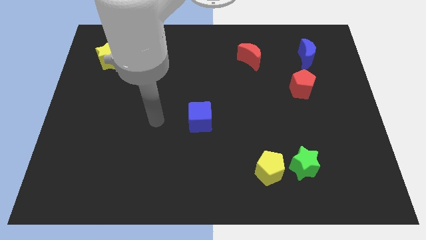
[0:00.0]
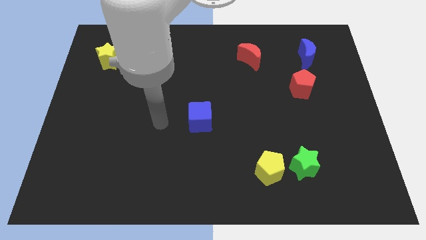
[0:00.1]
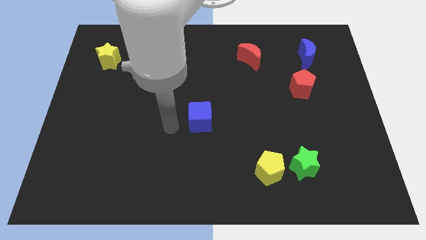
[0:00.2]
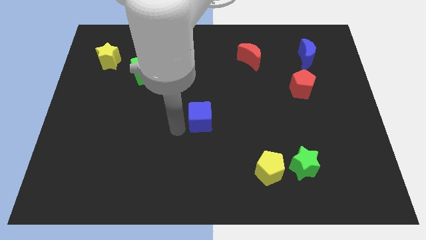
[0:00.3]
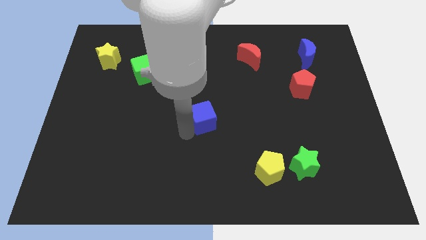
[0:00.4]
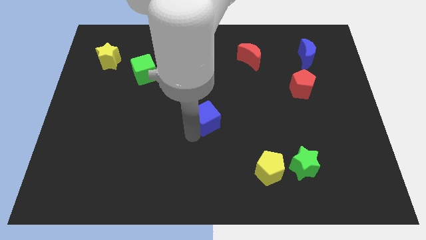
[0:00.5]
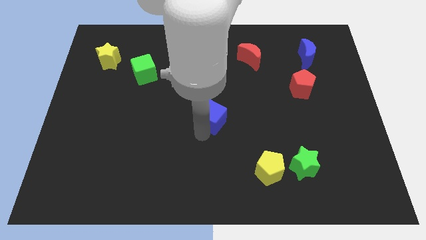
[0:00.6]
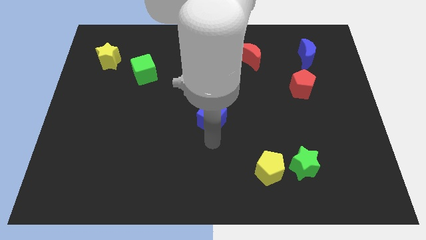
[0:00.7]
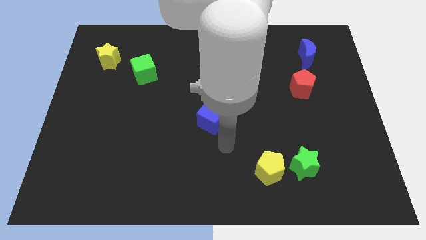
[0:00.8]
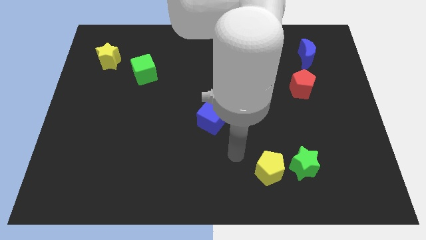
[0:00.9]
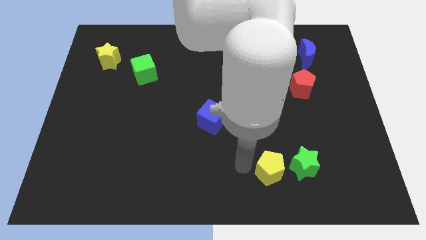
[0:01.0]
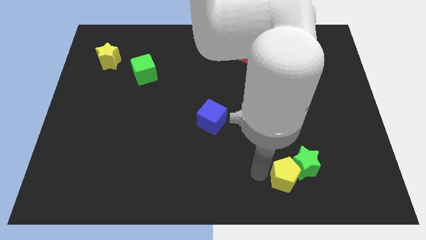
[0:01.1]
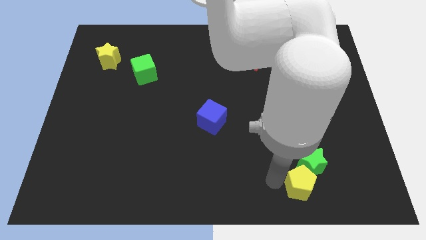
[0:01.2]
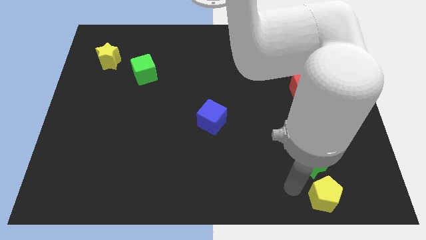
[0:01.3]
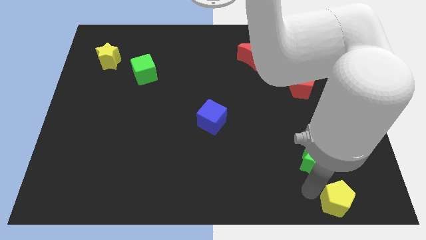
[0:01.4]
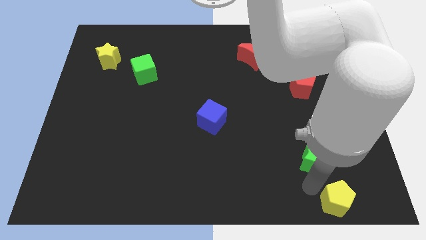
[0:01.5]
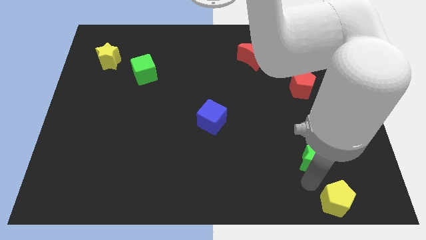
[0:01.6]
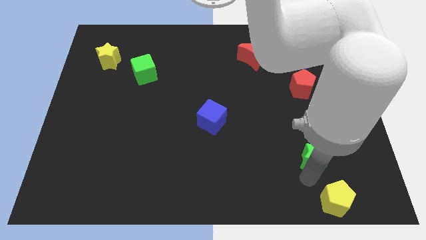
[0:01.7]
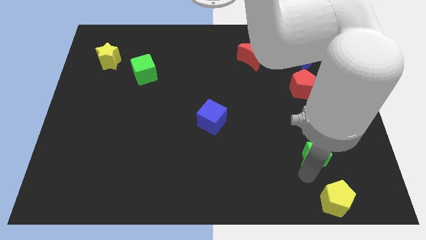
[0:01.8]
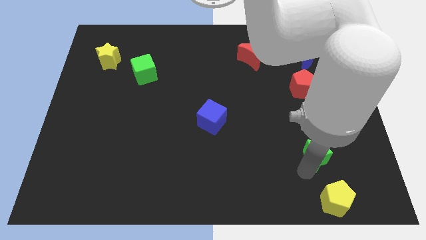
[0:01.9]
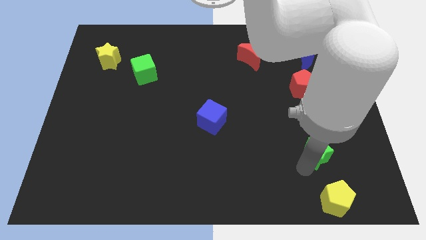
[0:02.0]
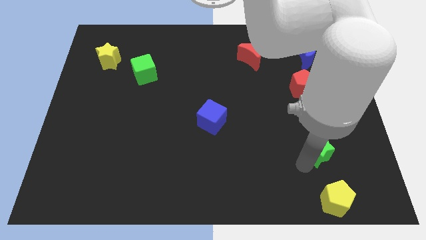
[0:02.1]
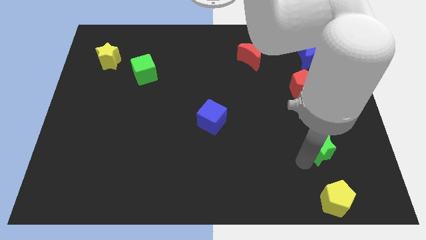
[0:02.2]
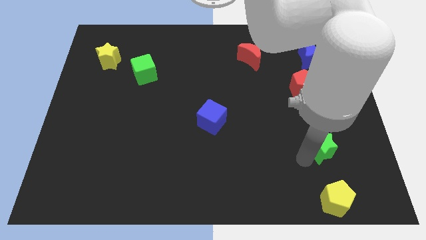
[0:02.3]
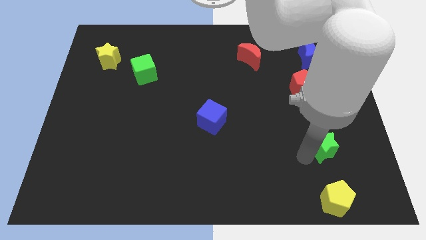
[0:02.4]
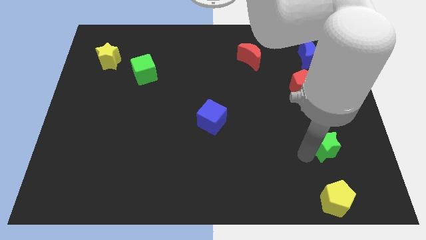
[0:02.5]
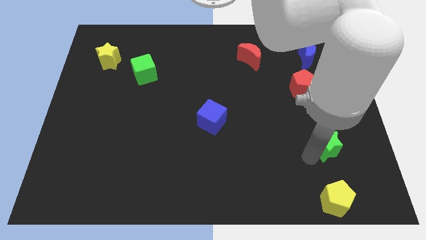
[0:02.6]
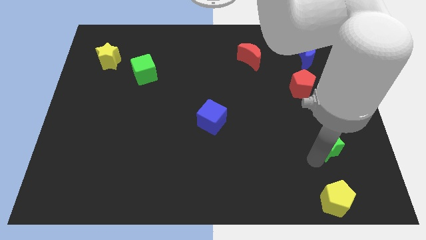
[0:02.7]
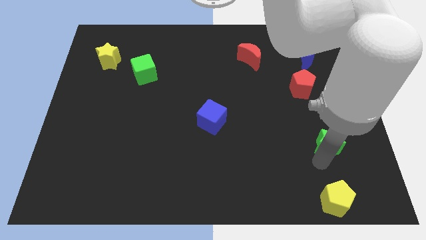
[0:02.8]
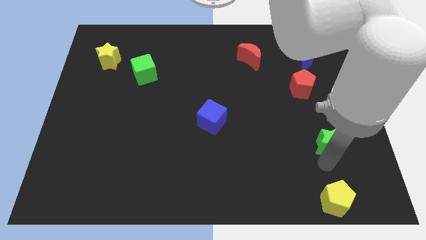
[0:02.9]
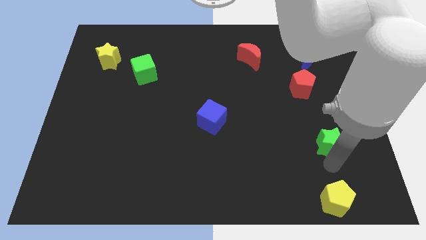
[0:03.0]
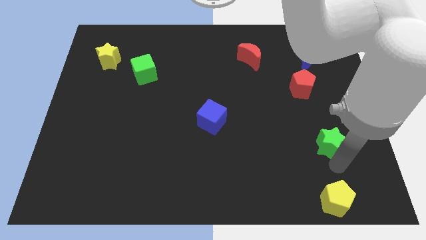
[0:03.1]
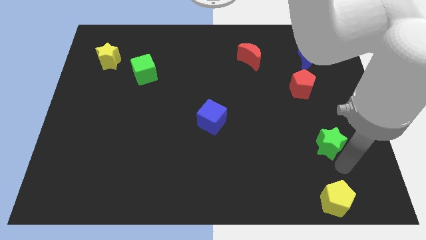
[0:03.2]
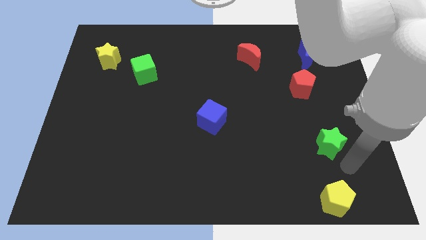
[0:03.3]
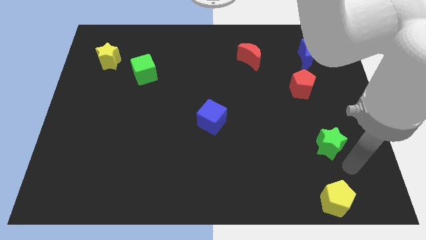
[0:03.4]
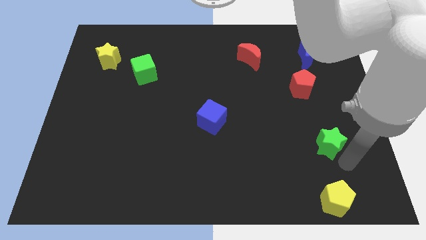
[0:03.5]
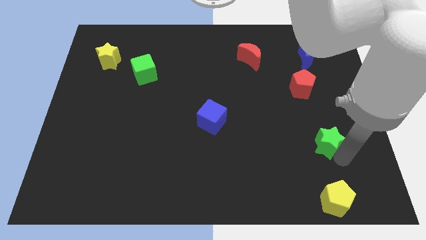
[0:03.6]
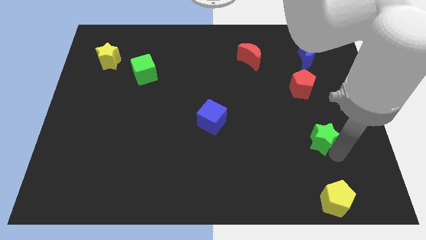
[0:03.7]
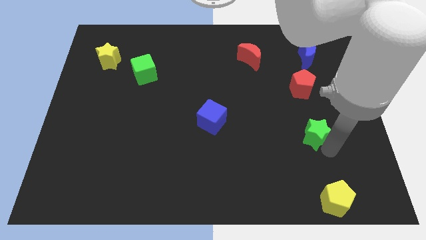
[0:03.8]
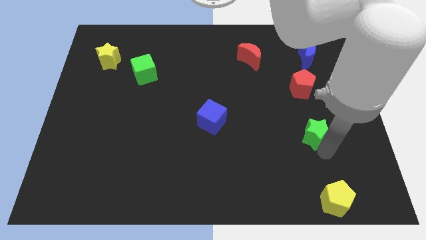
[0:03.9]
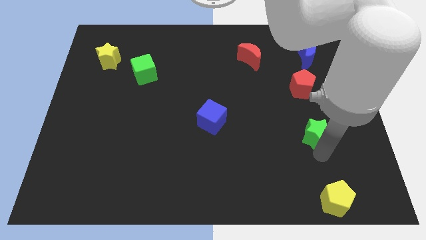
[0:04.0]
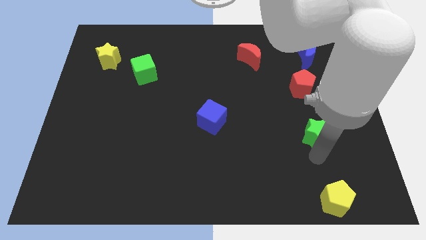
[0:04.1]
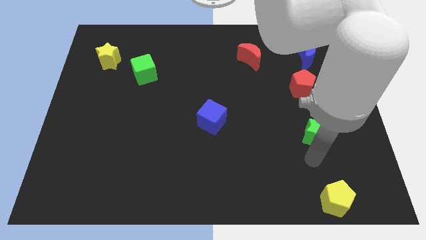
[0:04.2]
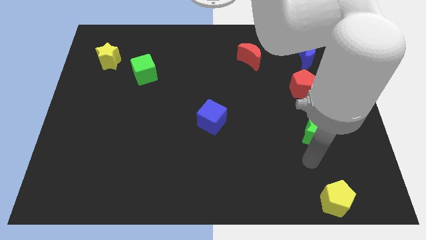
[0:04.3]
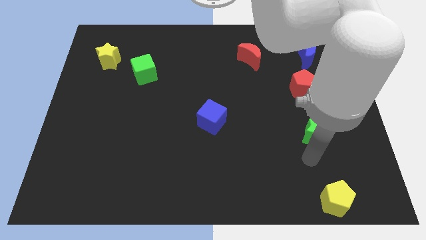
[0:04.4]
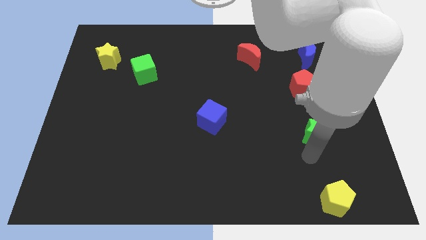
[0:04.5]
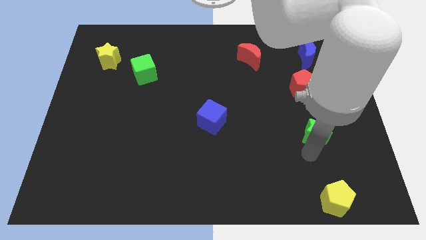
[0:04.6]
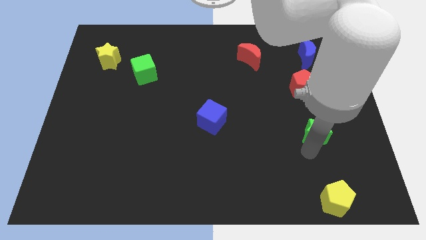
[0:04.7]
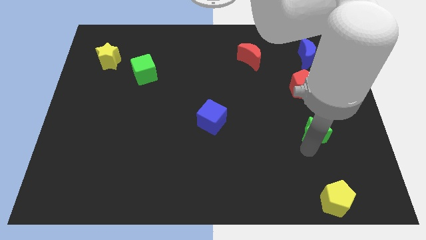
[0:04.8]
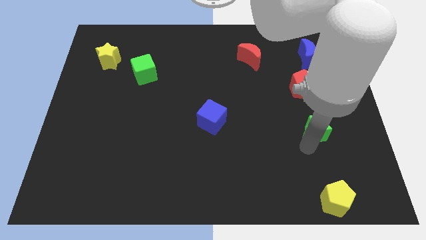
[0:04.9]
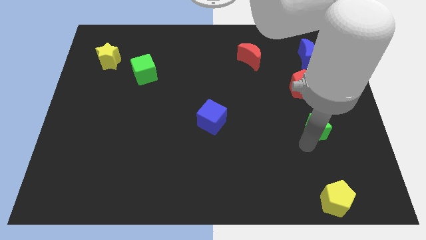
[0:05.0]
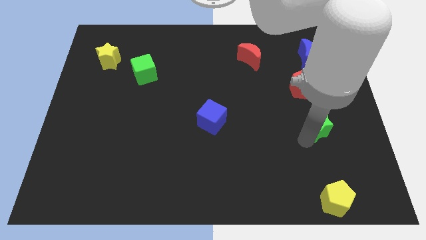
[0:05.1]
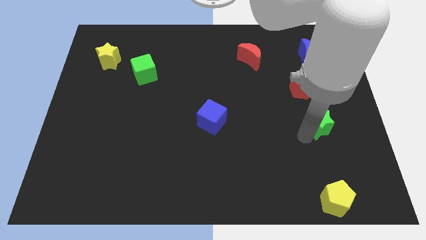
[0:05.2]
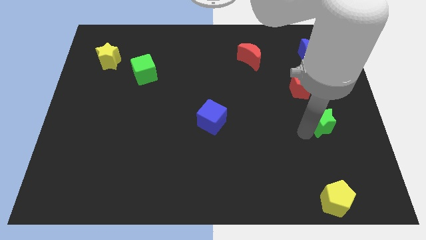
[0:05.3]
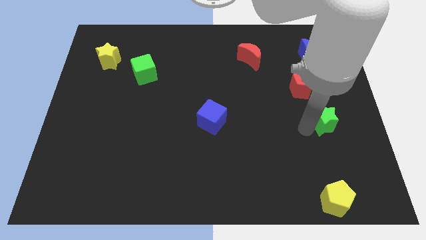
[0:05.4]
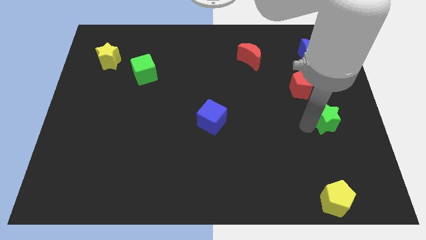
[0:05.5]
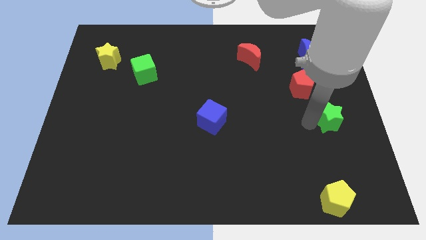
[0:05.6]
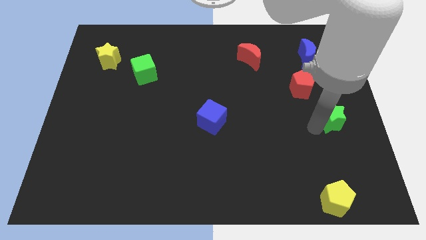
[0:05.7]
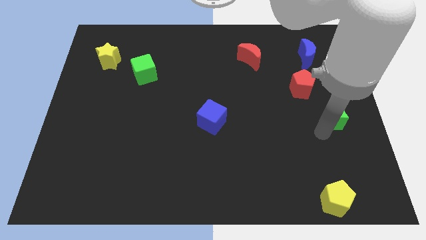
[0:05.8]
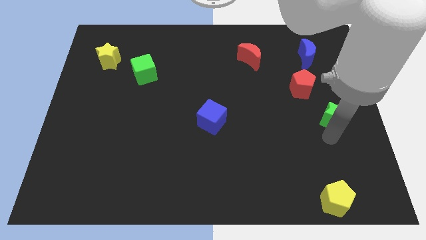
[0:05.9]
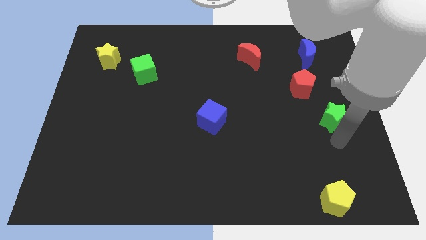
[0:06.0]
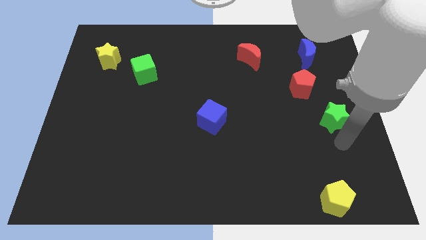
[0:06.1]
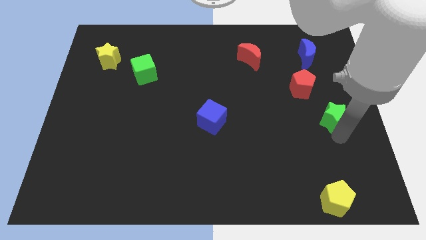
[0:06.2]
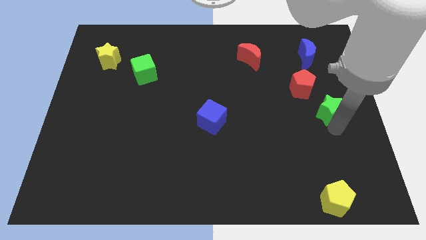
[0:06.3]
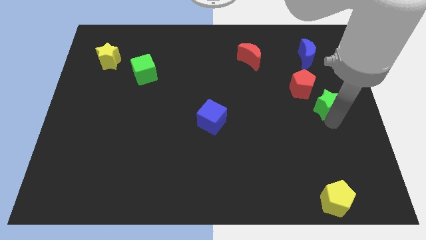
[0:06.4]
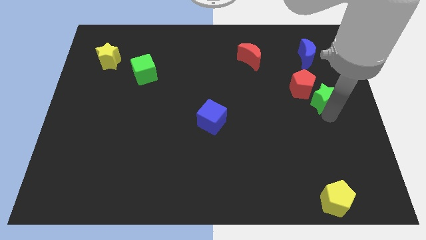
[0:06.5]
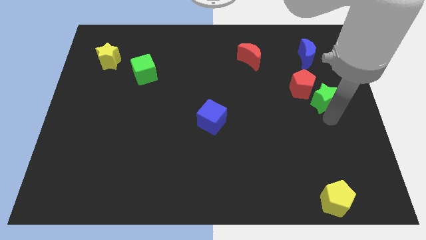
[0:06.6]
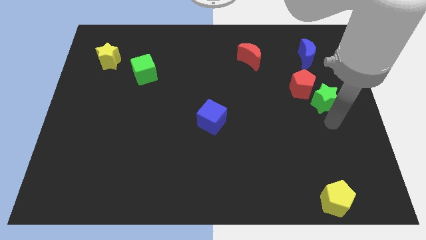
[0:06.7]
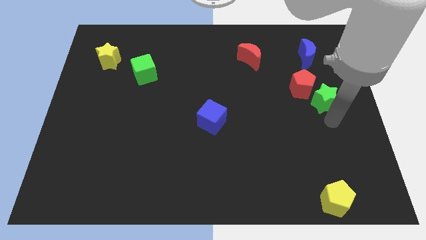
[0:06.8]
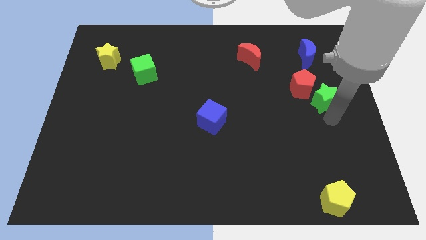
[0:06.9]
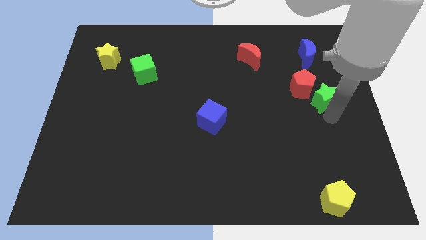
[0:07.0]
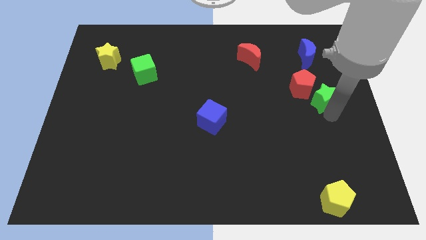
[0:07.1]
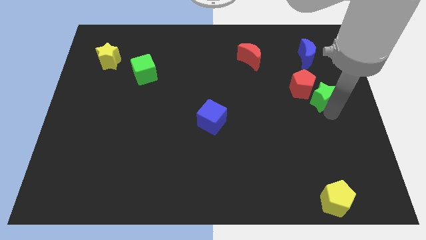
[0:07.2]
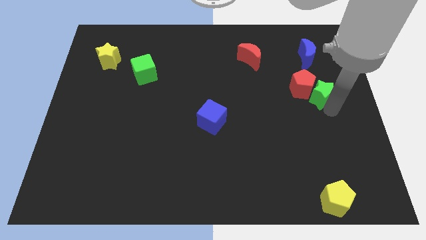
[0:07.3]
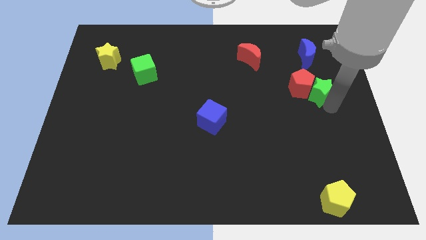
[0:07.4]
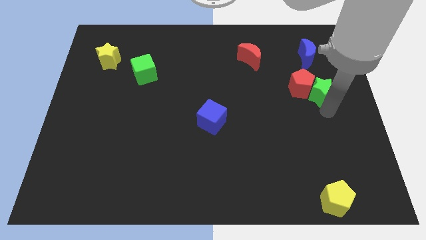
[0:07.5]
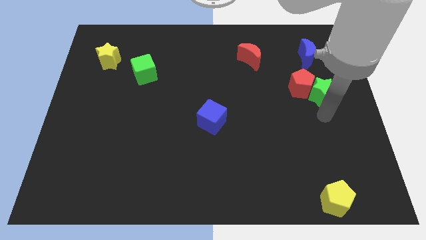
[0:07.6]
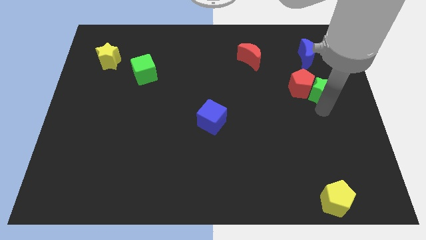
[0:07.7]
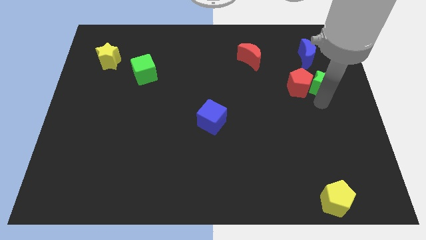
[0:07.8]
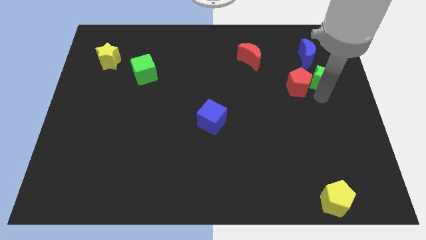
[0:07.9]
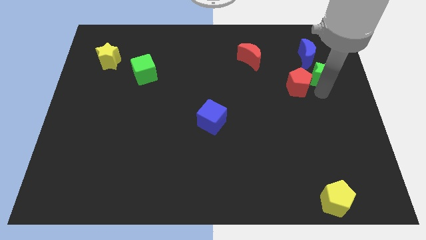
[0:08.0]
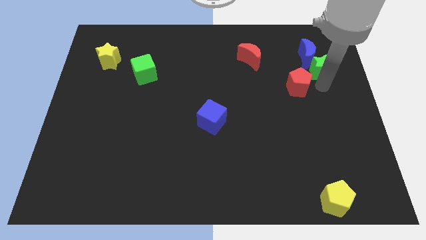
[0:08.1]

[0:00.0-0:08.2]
put the green star next to the blue moon
